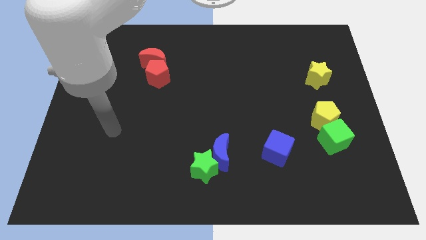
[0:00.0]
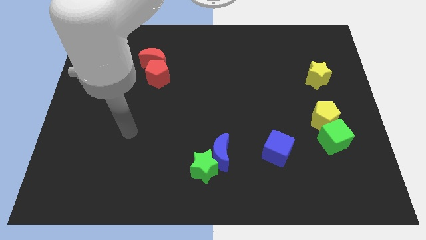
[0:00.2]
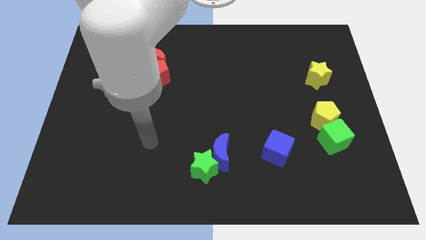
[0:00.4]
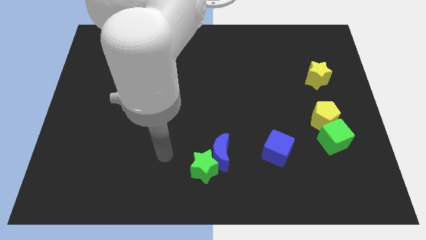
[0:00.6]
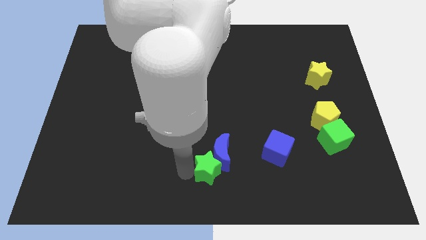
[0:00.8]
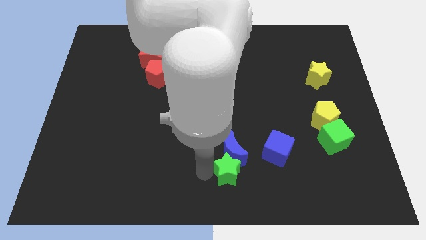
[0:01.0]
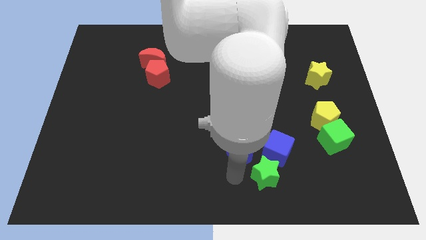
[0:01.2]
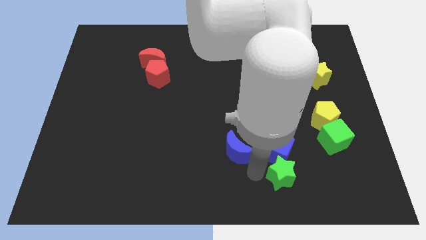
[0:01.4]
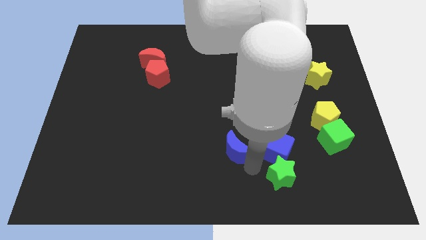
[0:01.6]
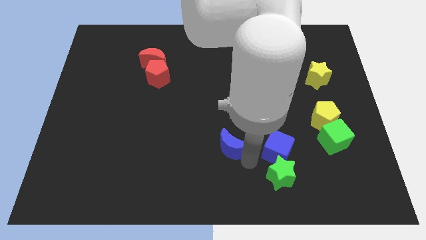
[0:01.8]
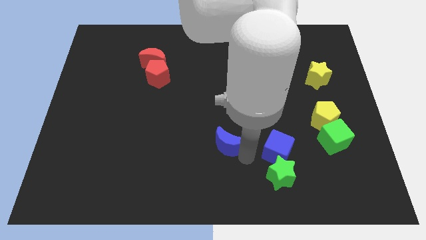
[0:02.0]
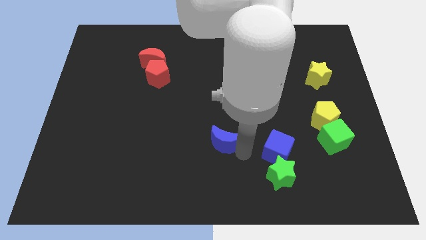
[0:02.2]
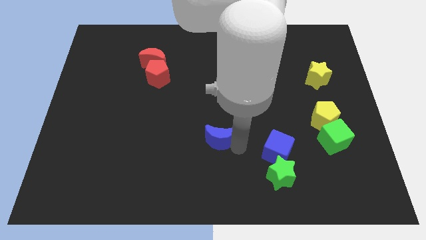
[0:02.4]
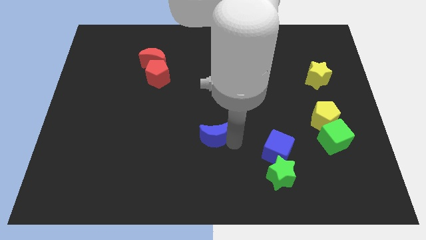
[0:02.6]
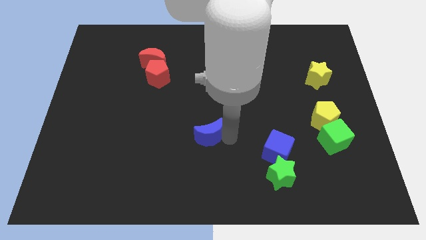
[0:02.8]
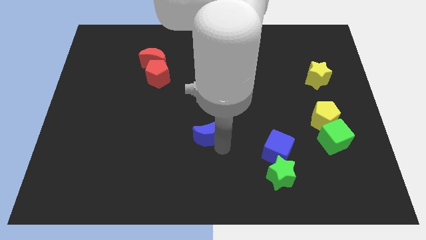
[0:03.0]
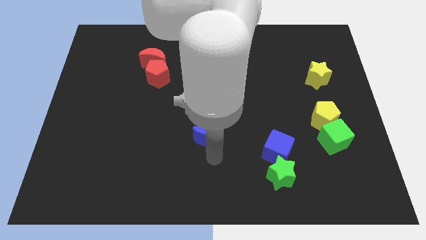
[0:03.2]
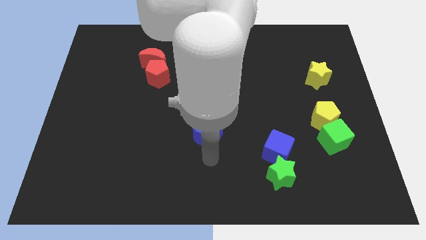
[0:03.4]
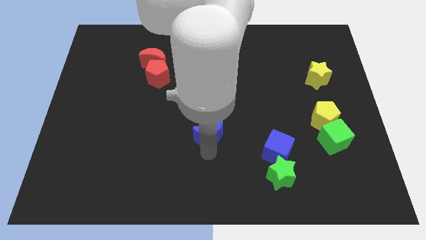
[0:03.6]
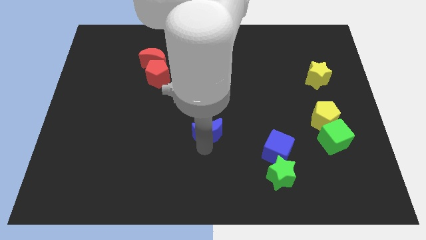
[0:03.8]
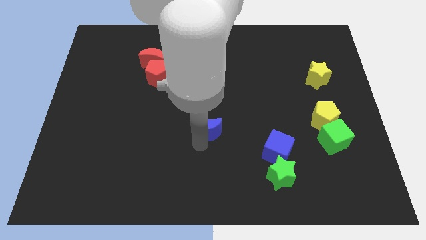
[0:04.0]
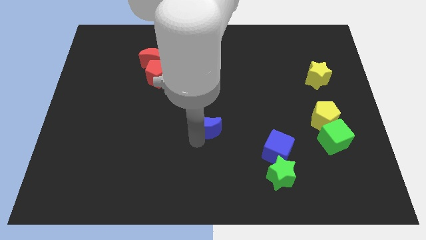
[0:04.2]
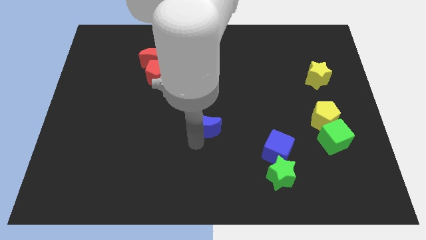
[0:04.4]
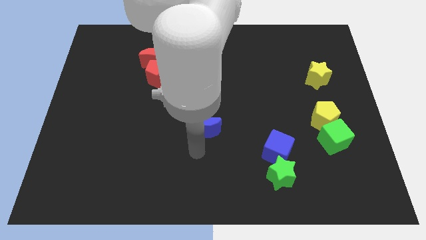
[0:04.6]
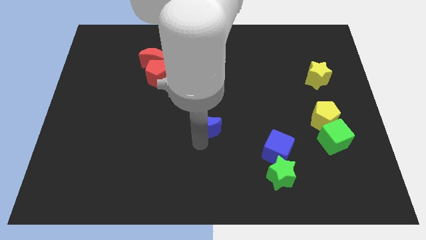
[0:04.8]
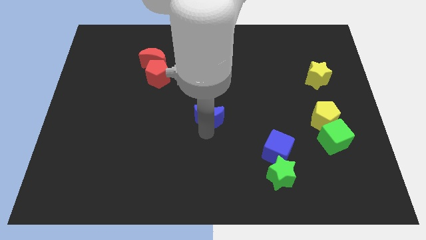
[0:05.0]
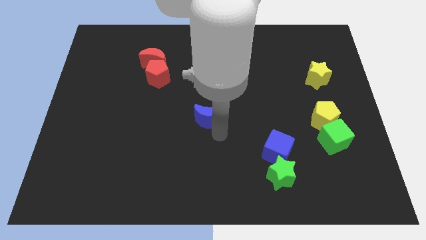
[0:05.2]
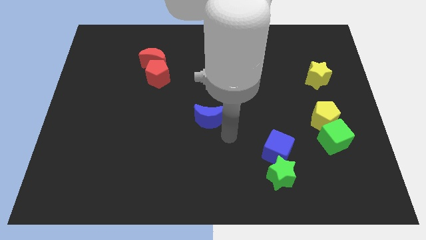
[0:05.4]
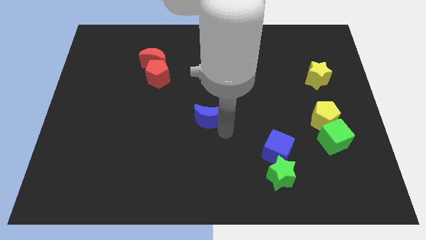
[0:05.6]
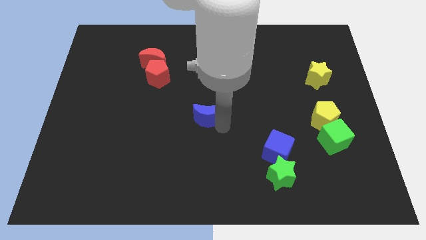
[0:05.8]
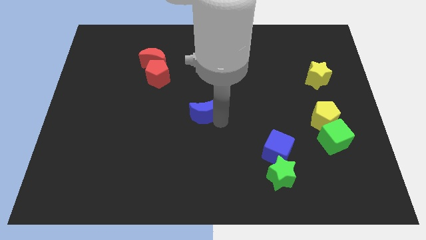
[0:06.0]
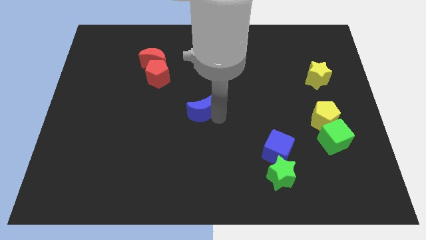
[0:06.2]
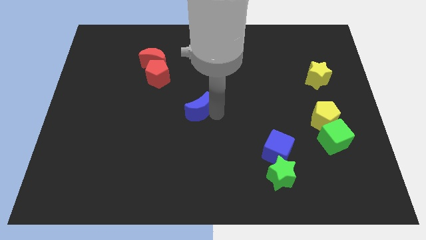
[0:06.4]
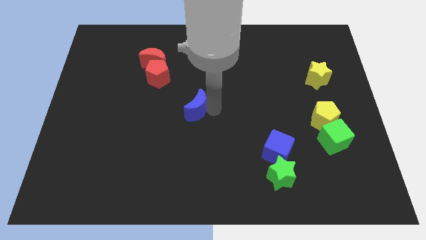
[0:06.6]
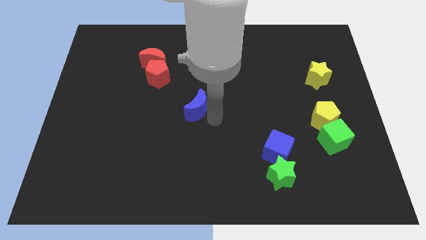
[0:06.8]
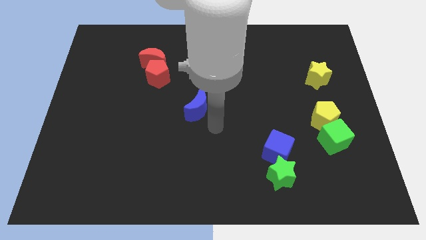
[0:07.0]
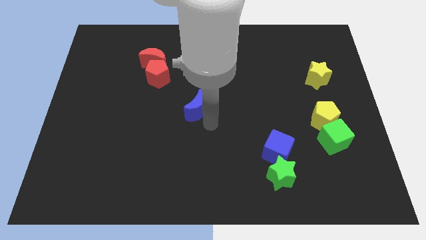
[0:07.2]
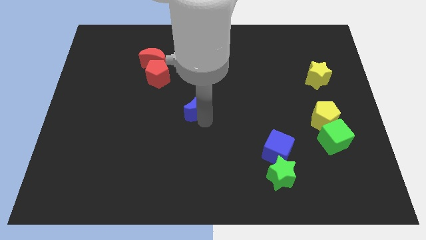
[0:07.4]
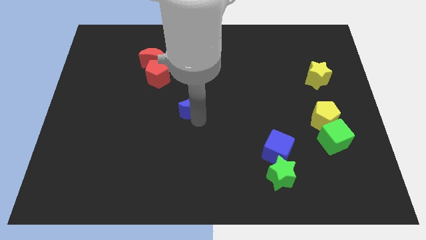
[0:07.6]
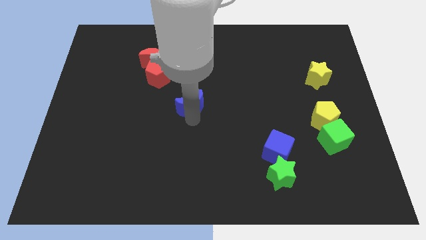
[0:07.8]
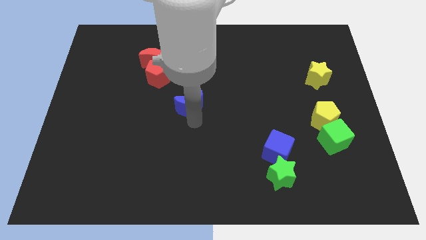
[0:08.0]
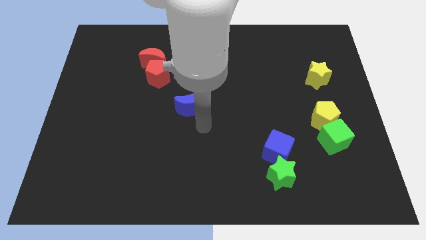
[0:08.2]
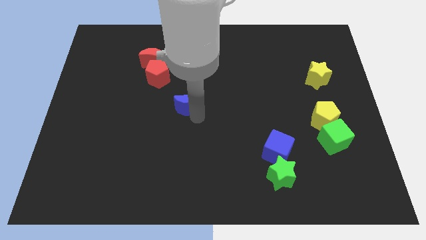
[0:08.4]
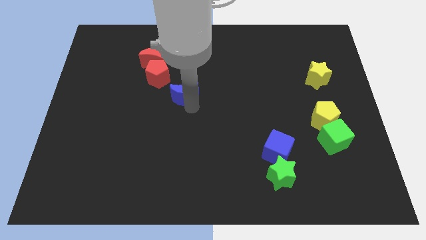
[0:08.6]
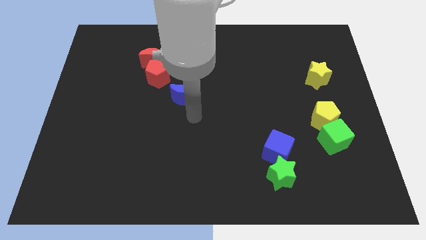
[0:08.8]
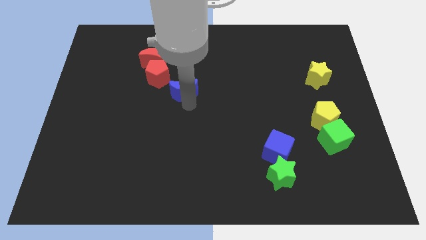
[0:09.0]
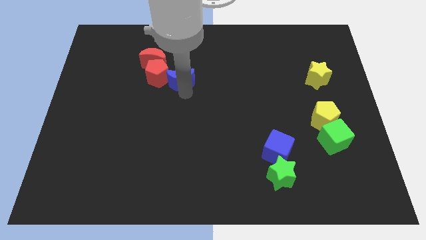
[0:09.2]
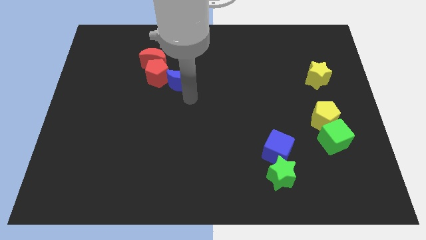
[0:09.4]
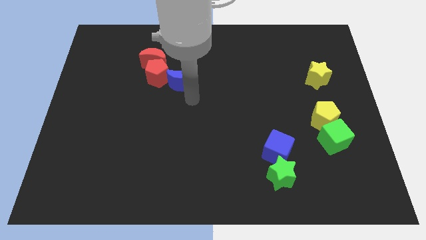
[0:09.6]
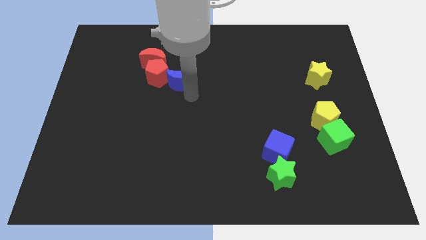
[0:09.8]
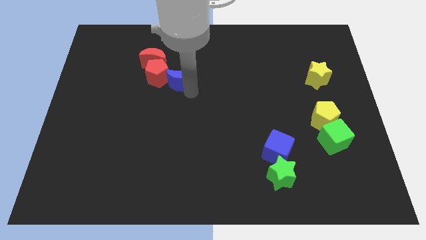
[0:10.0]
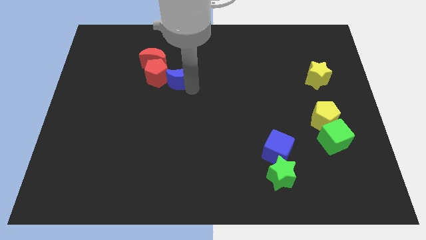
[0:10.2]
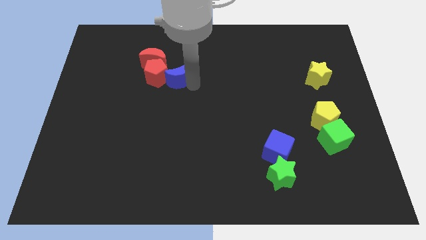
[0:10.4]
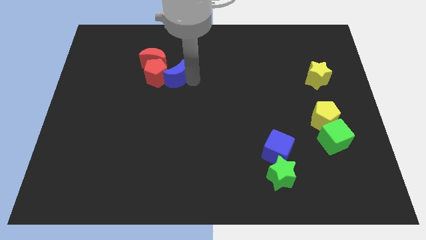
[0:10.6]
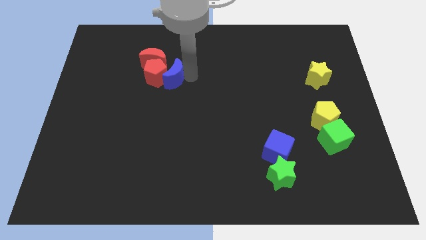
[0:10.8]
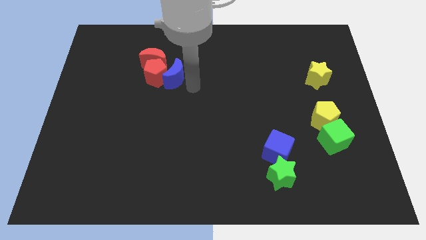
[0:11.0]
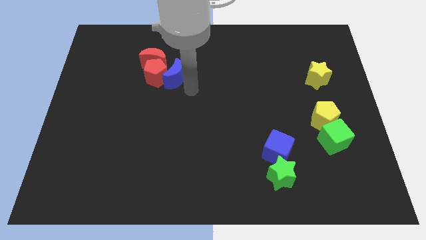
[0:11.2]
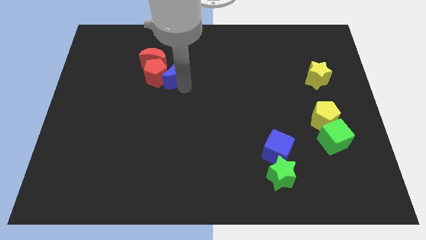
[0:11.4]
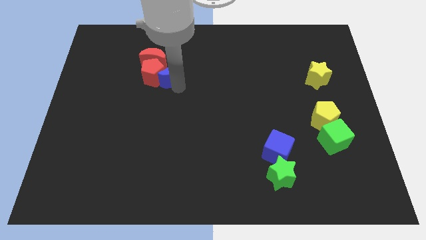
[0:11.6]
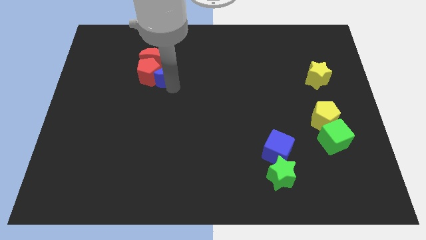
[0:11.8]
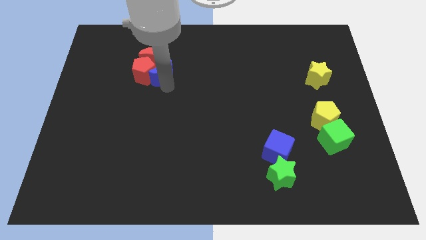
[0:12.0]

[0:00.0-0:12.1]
push the blue moon towards the red moon

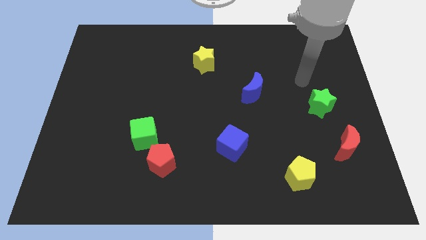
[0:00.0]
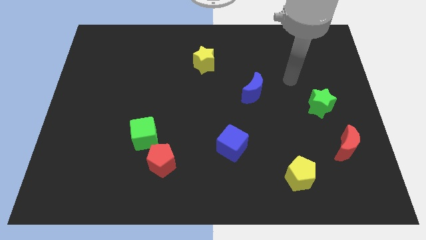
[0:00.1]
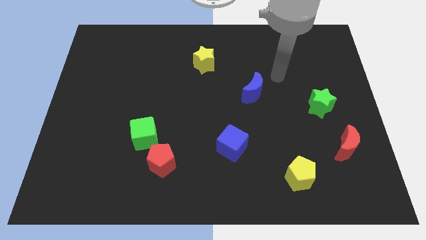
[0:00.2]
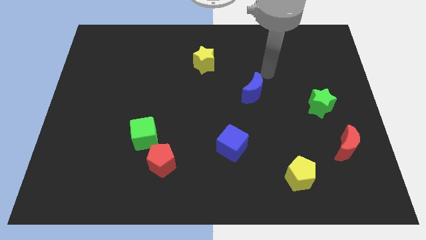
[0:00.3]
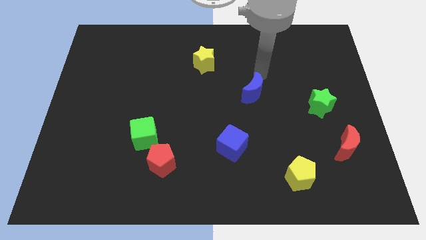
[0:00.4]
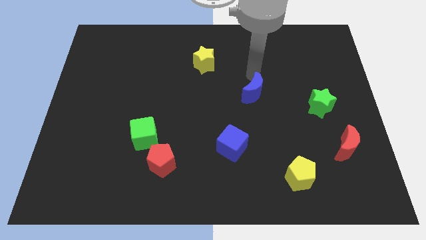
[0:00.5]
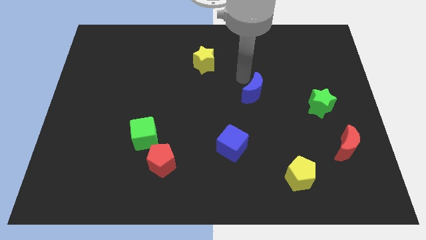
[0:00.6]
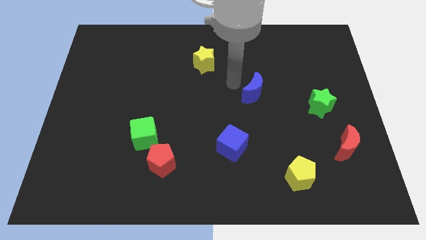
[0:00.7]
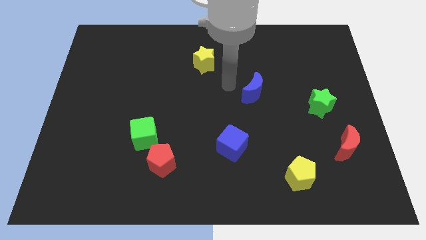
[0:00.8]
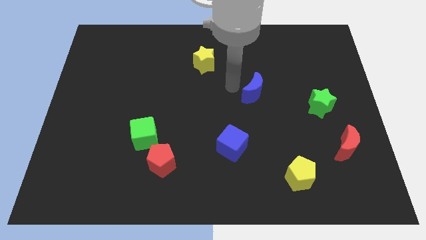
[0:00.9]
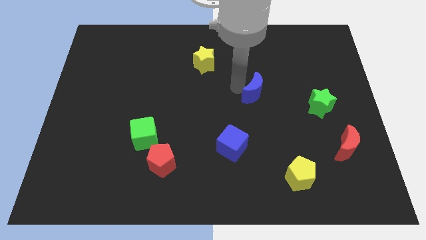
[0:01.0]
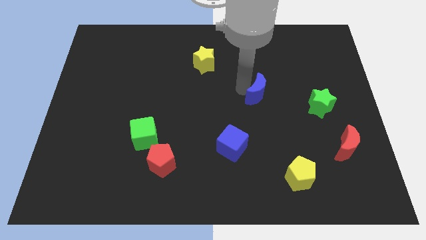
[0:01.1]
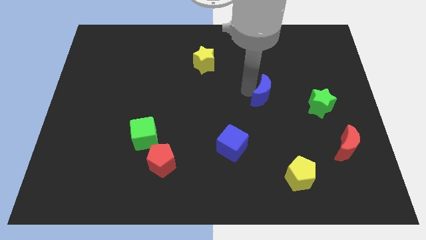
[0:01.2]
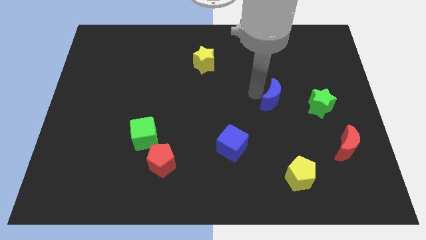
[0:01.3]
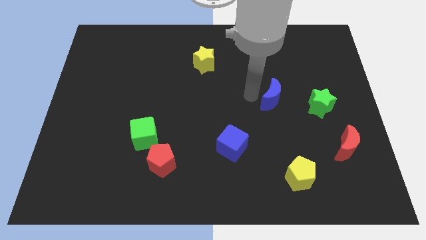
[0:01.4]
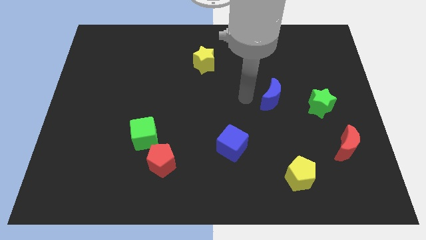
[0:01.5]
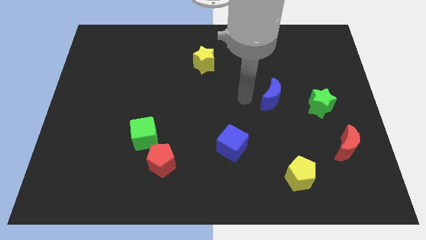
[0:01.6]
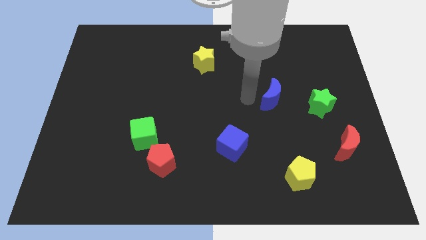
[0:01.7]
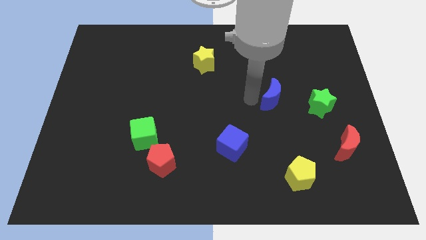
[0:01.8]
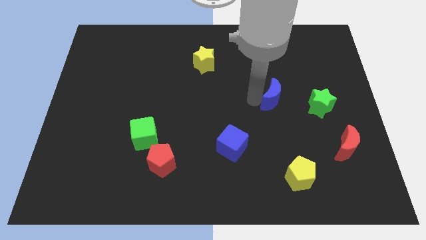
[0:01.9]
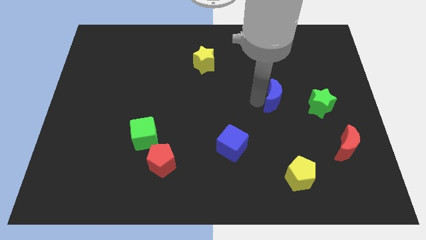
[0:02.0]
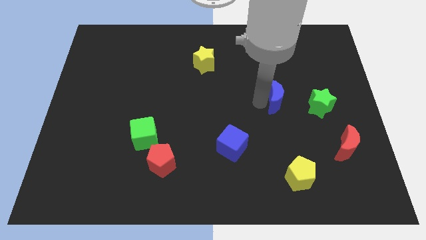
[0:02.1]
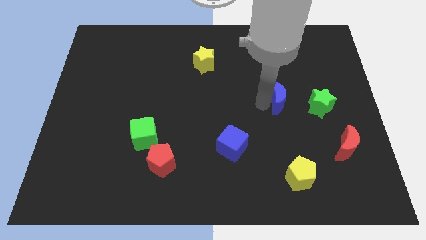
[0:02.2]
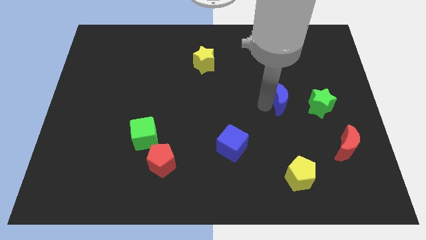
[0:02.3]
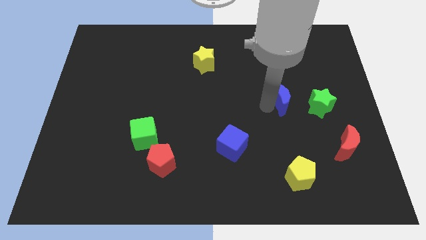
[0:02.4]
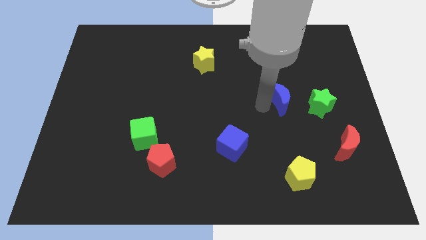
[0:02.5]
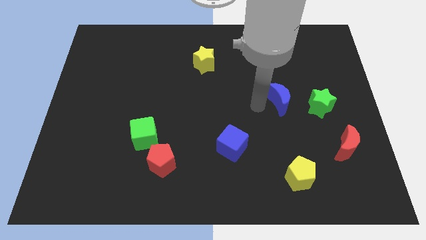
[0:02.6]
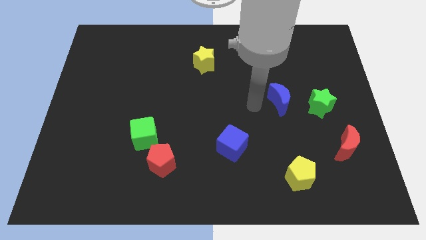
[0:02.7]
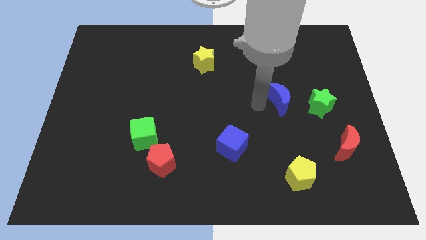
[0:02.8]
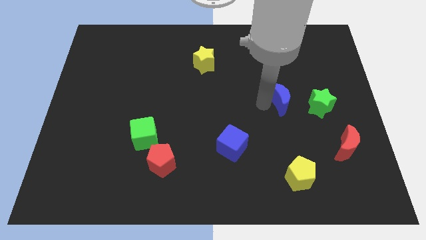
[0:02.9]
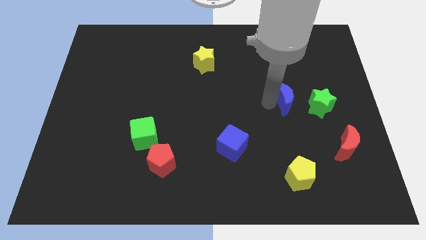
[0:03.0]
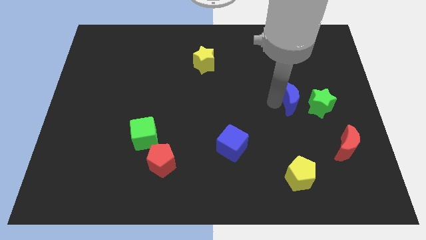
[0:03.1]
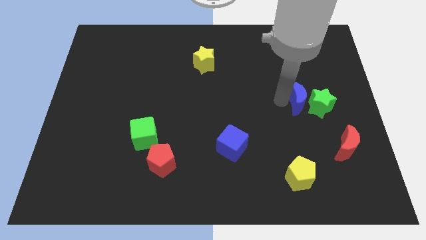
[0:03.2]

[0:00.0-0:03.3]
slide the blue moon next to the green star
